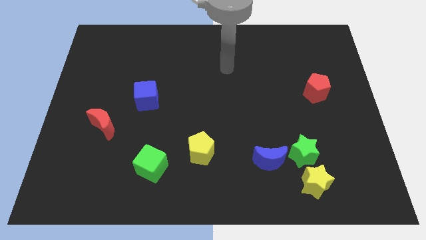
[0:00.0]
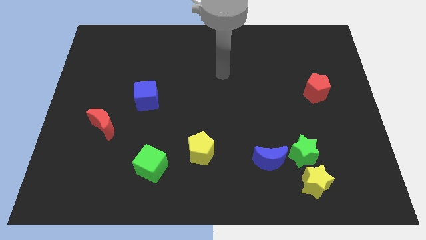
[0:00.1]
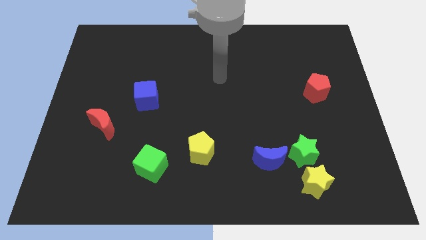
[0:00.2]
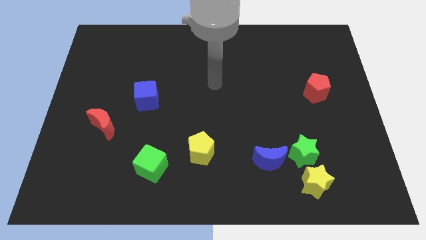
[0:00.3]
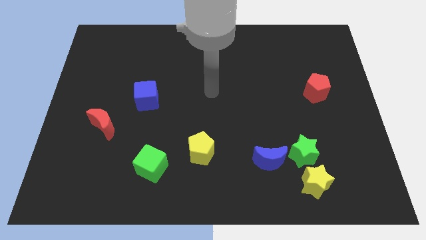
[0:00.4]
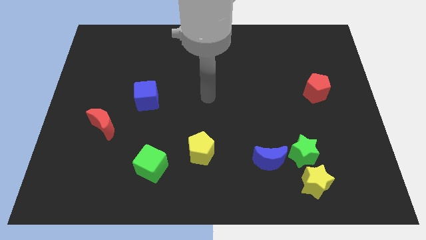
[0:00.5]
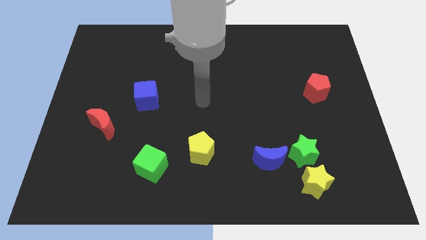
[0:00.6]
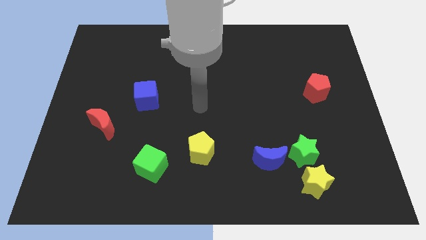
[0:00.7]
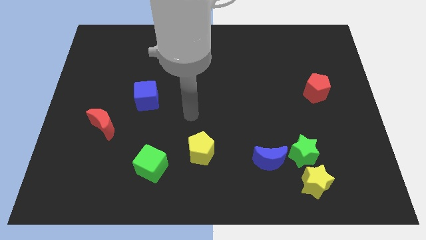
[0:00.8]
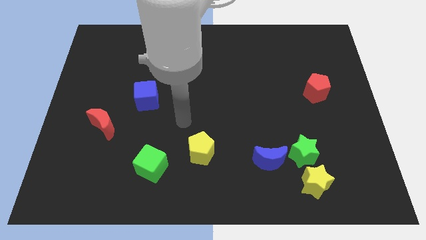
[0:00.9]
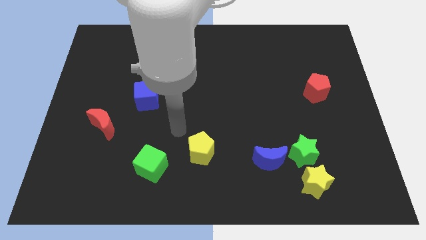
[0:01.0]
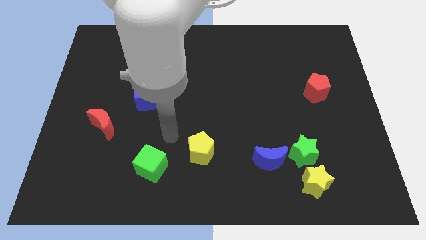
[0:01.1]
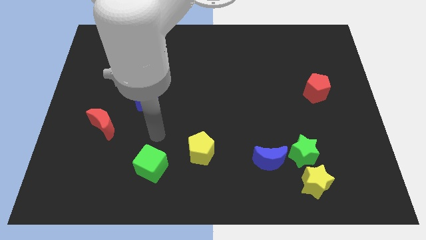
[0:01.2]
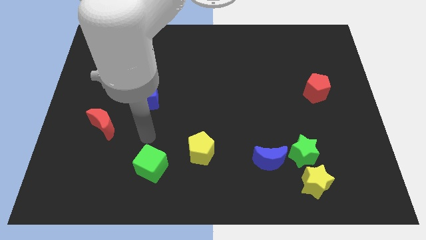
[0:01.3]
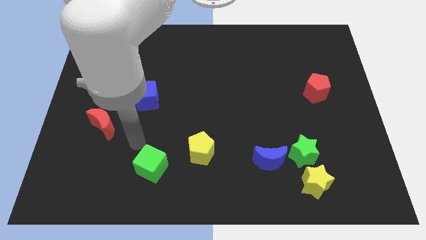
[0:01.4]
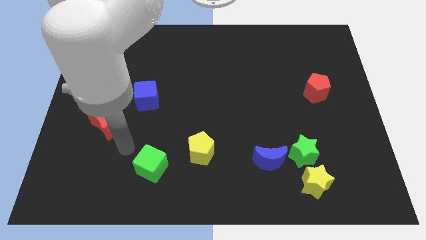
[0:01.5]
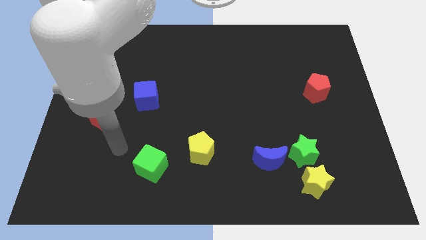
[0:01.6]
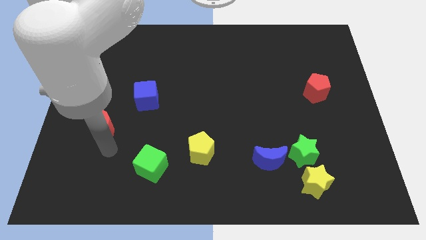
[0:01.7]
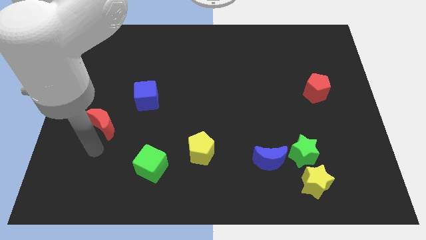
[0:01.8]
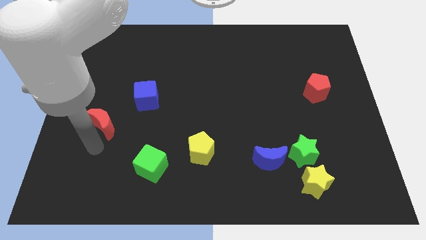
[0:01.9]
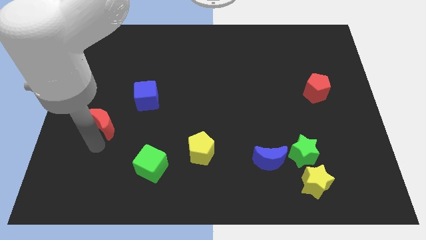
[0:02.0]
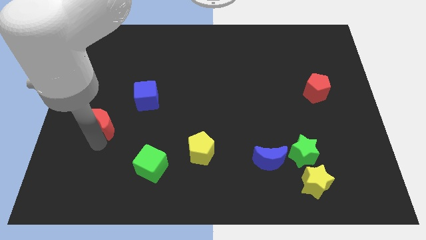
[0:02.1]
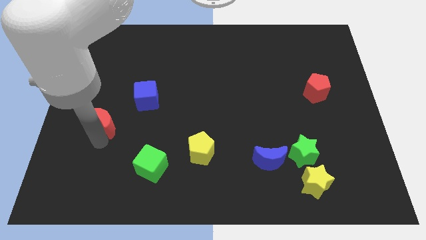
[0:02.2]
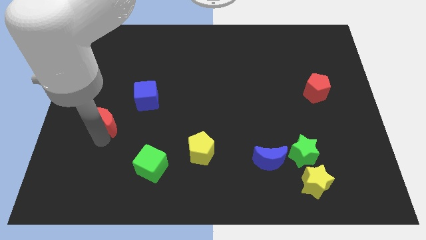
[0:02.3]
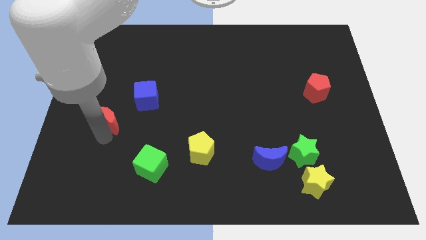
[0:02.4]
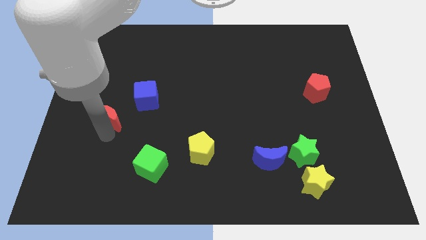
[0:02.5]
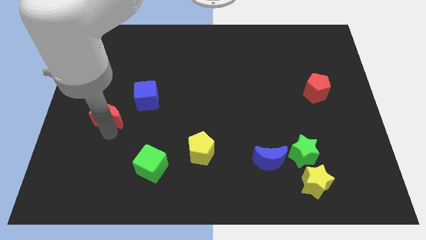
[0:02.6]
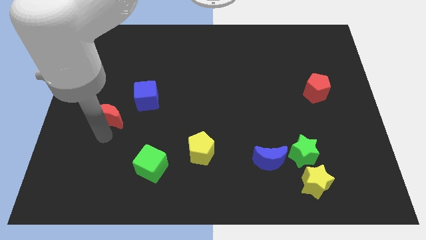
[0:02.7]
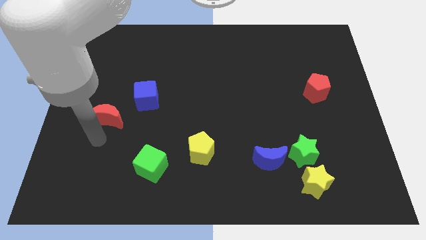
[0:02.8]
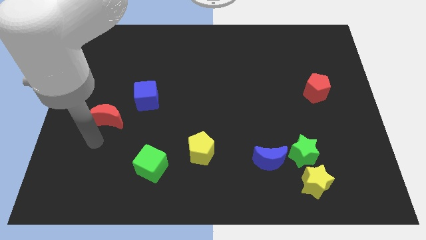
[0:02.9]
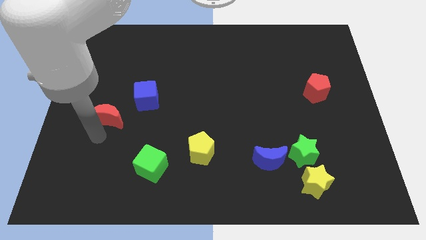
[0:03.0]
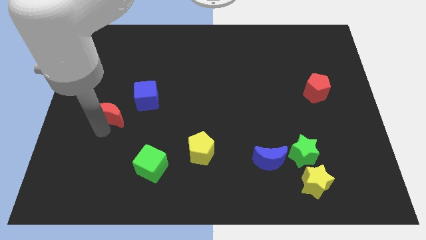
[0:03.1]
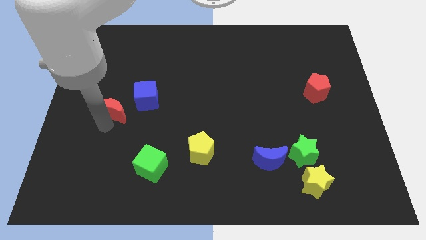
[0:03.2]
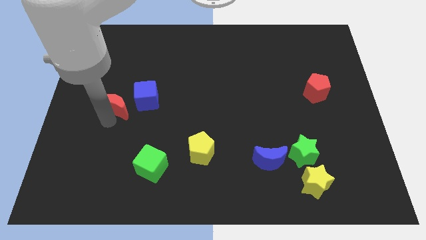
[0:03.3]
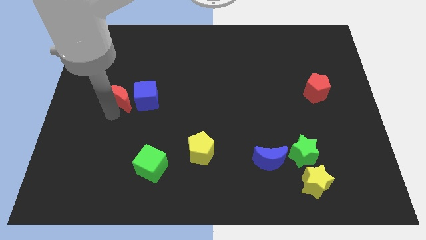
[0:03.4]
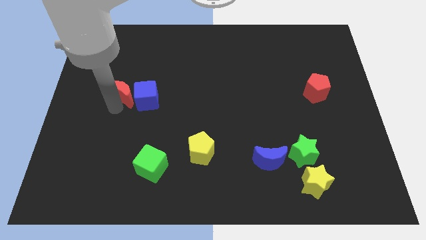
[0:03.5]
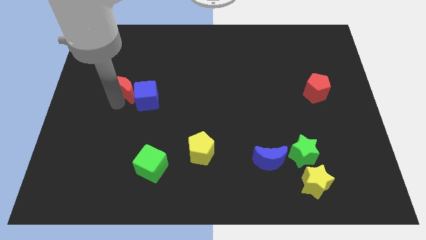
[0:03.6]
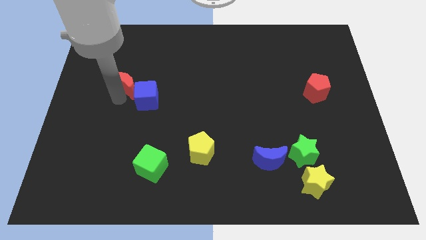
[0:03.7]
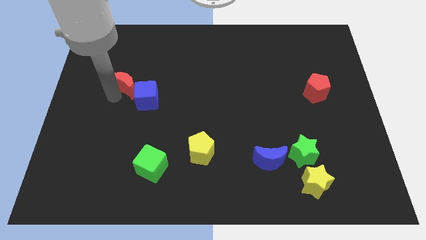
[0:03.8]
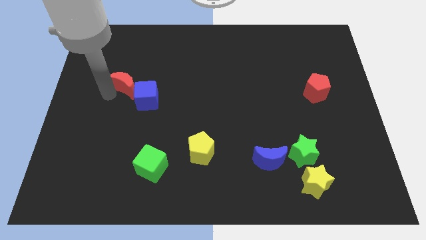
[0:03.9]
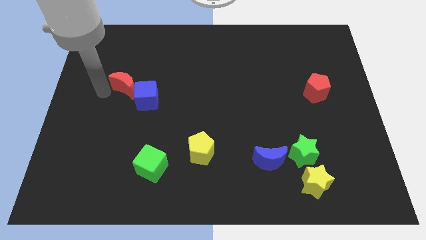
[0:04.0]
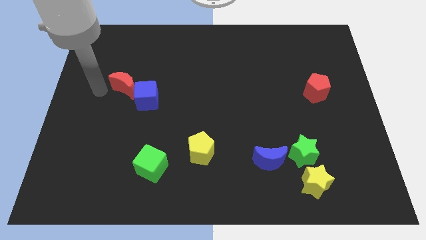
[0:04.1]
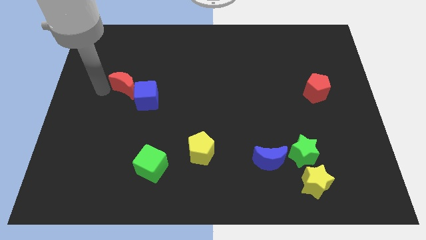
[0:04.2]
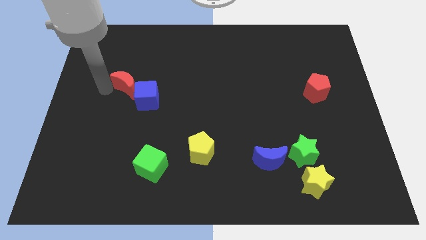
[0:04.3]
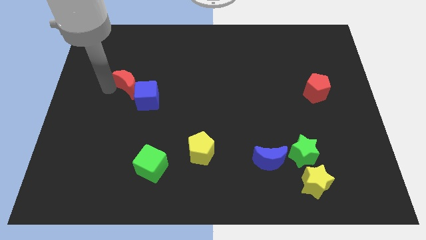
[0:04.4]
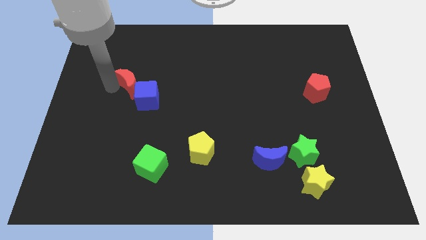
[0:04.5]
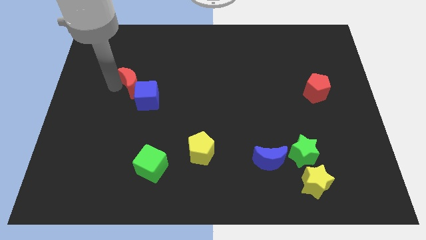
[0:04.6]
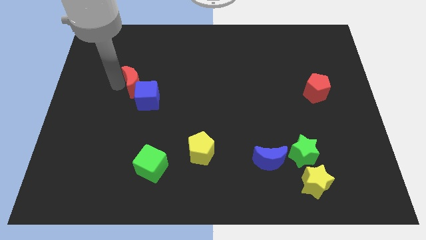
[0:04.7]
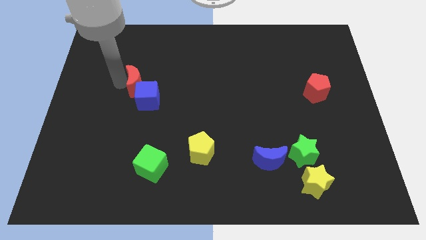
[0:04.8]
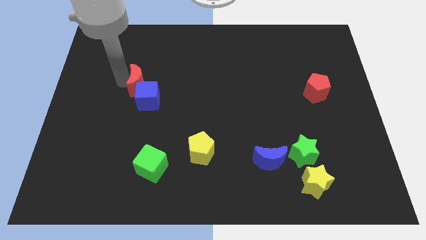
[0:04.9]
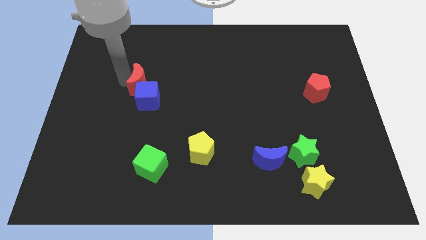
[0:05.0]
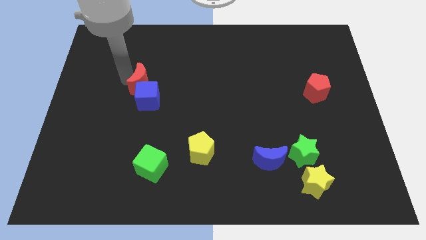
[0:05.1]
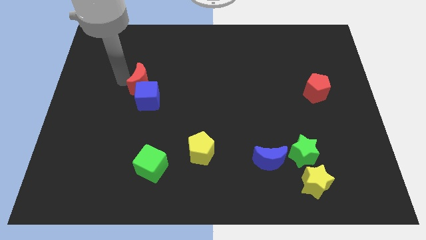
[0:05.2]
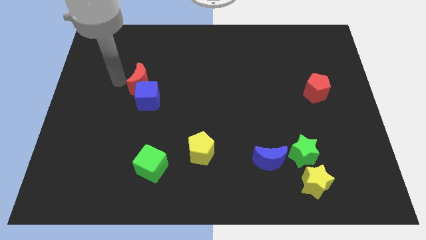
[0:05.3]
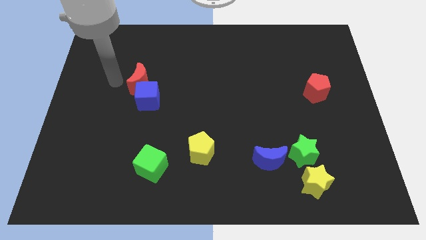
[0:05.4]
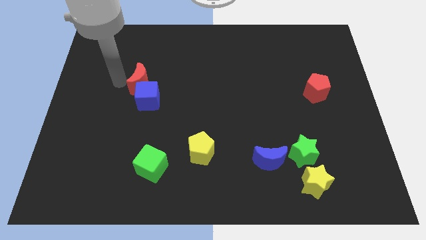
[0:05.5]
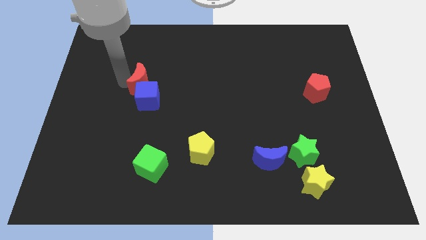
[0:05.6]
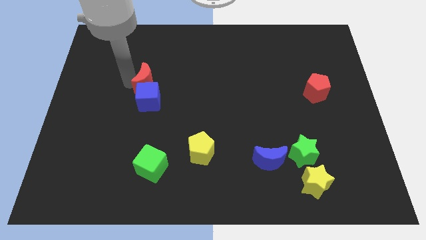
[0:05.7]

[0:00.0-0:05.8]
slide the red moon to the top right of the blue cube
